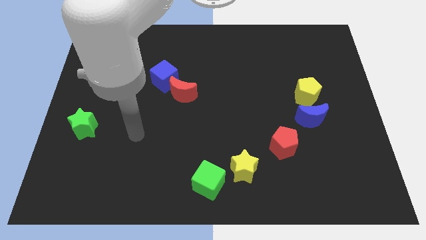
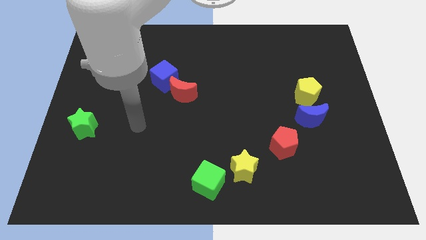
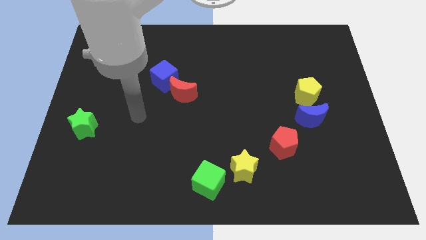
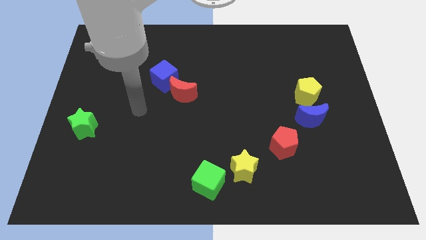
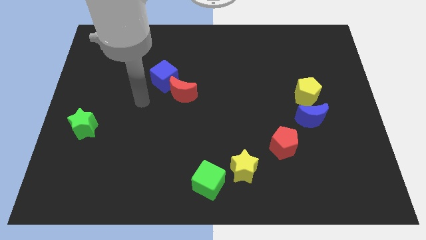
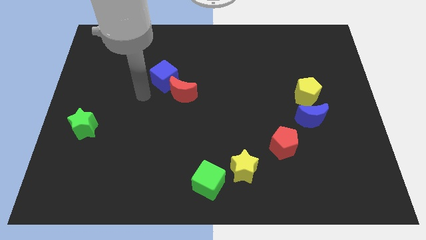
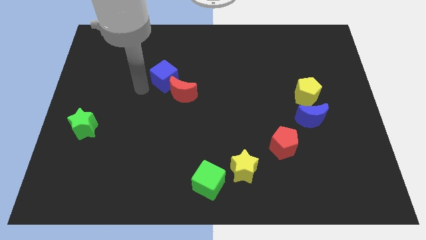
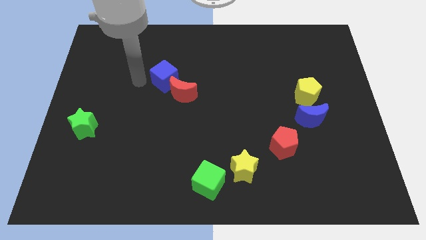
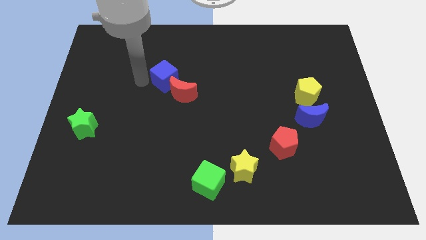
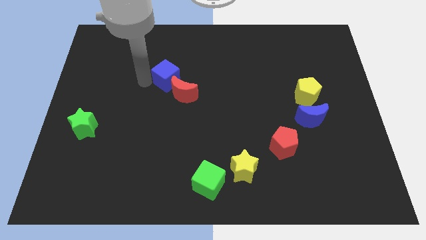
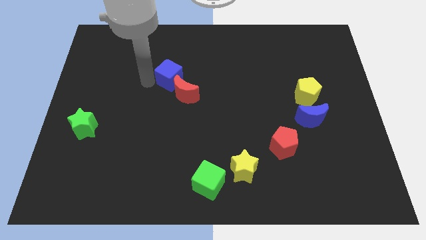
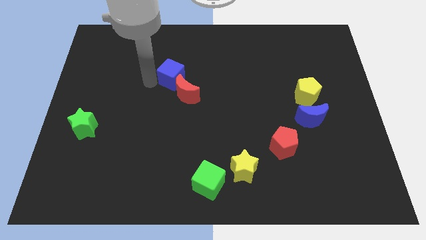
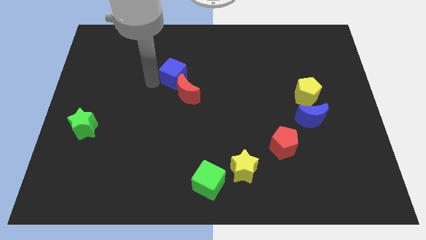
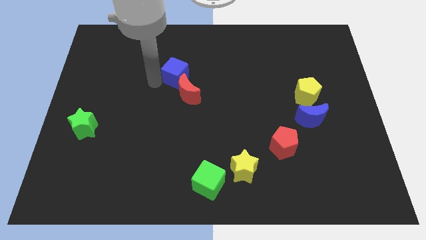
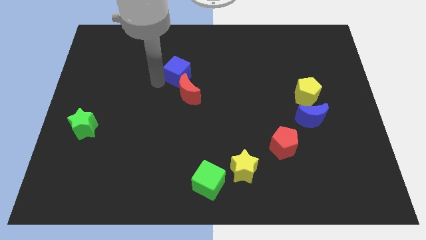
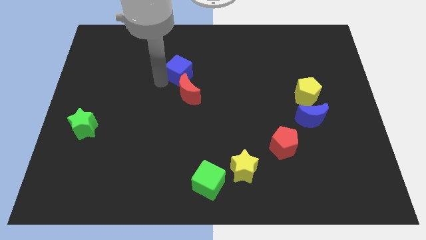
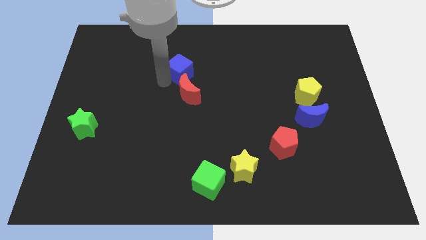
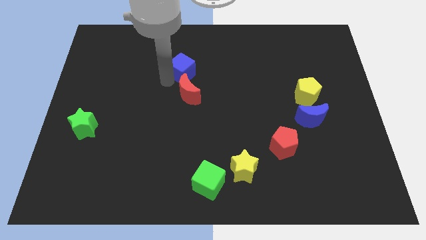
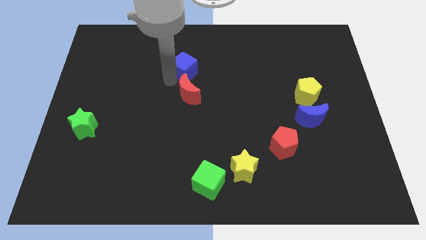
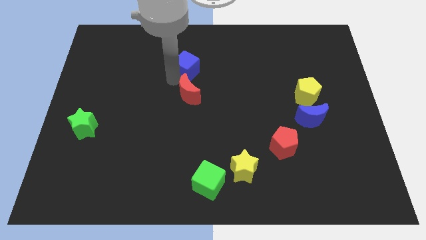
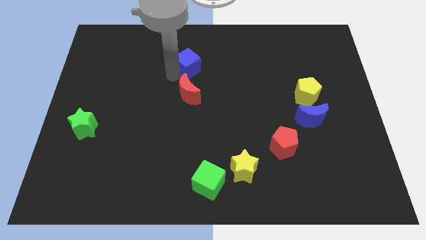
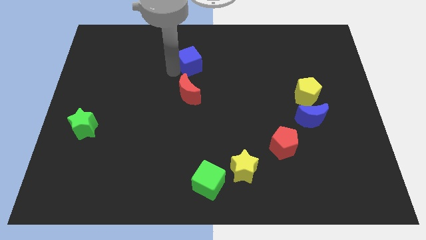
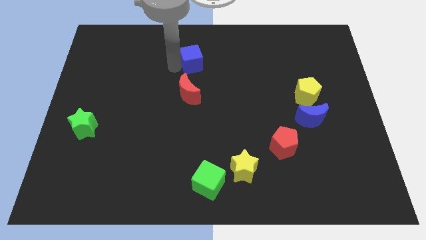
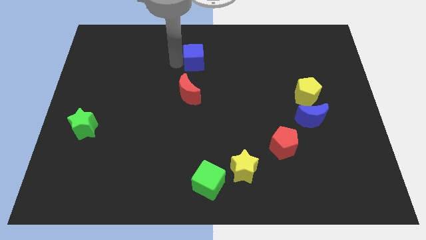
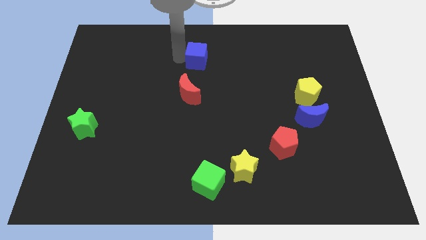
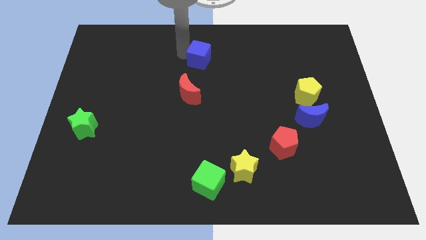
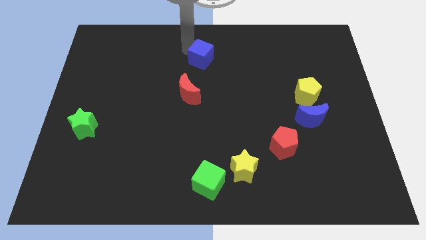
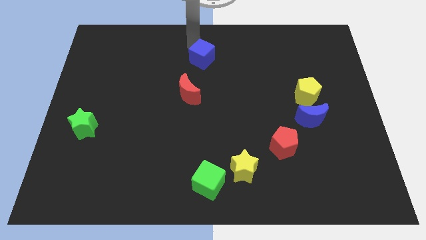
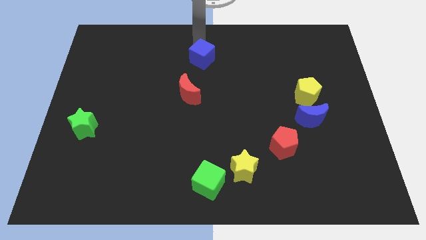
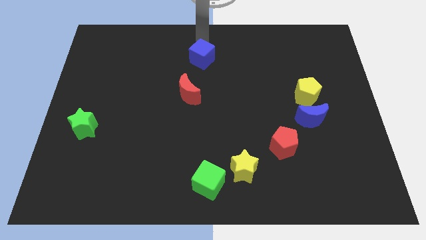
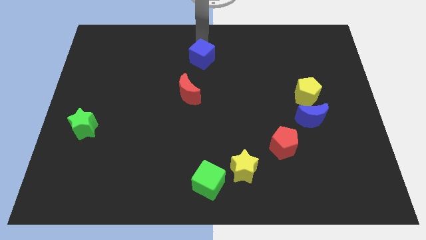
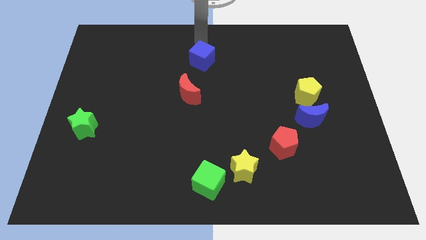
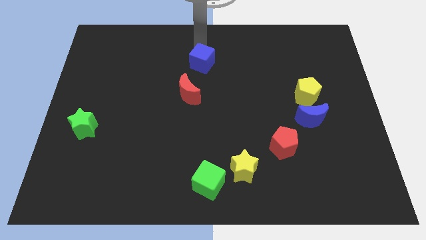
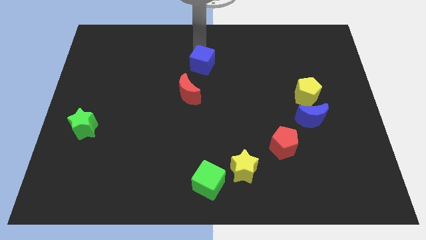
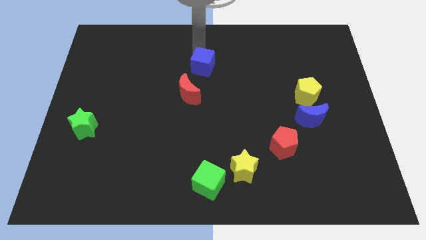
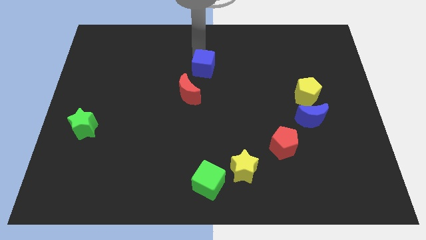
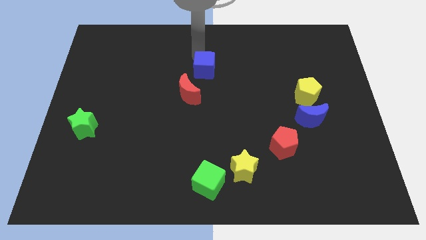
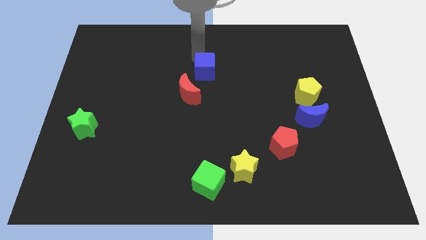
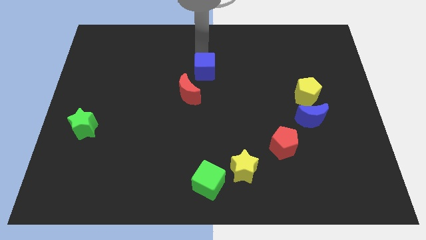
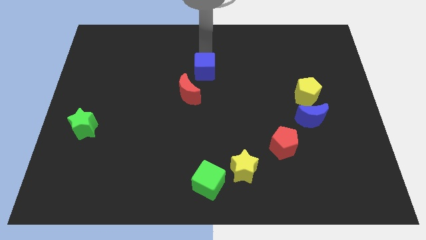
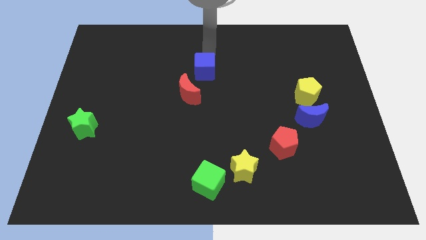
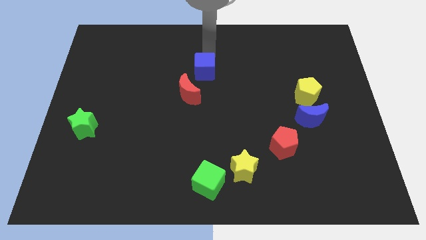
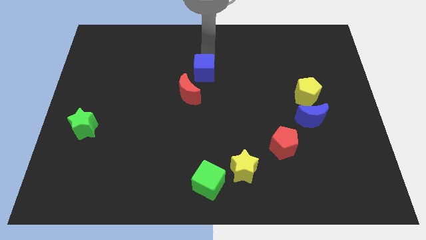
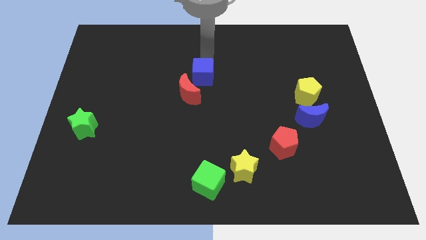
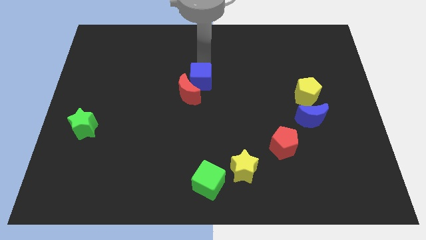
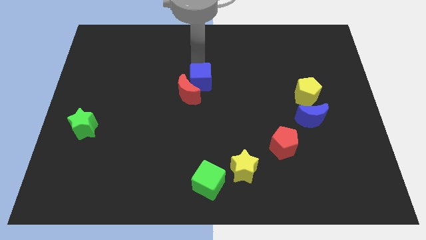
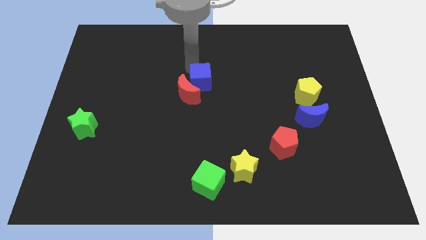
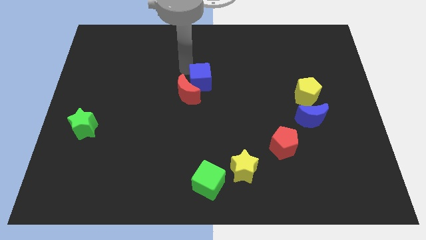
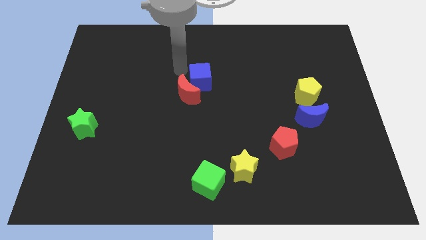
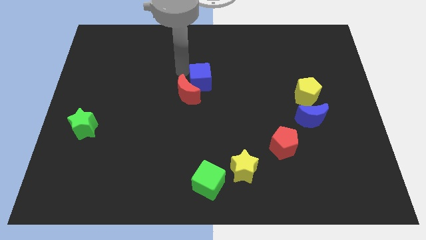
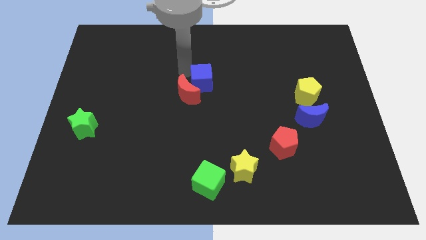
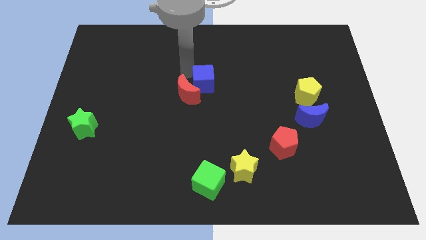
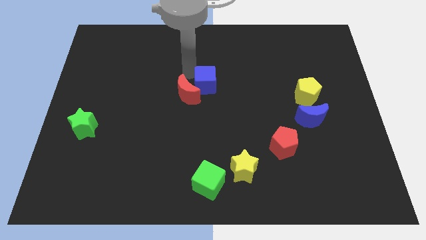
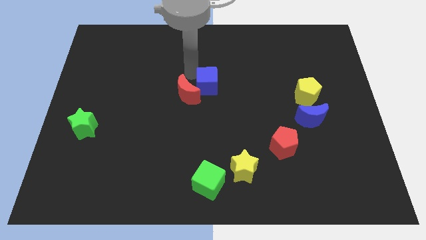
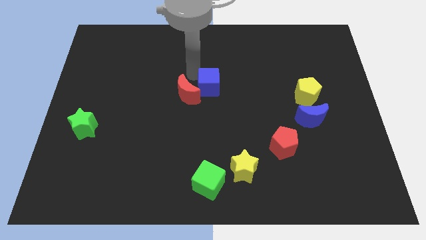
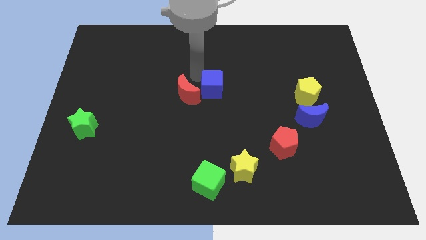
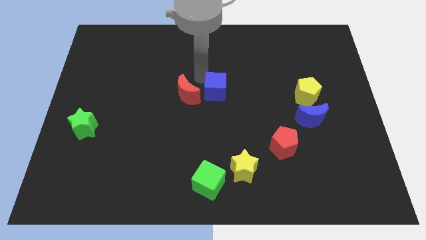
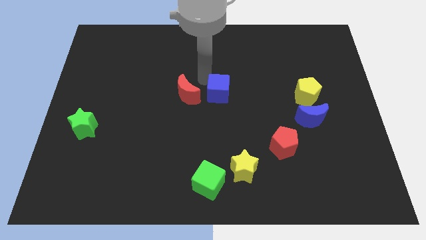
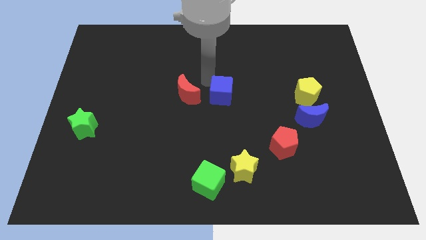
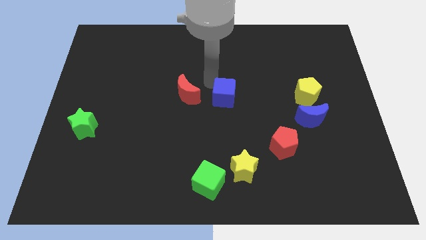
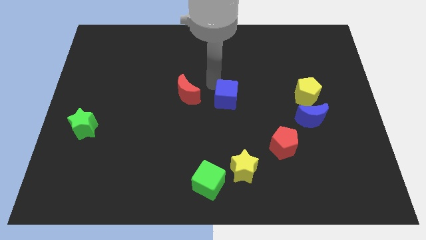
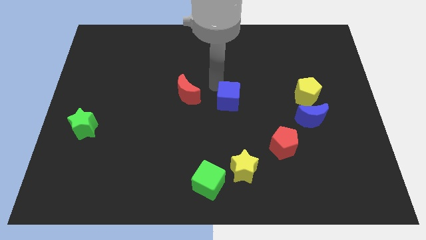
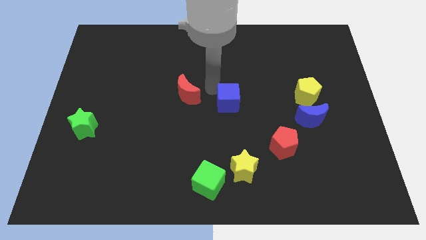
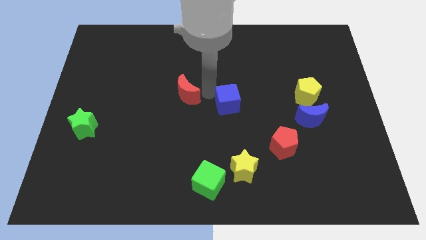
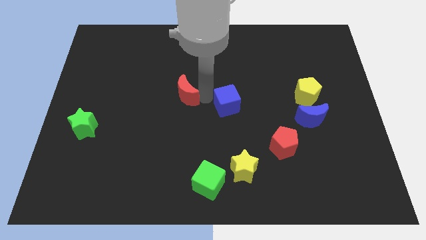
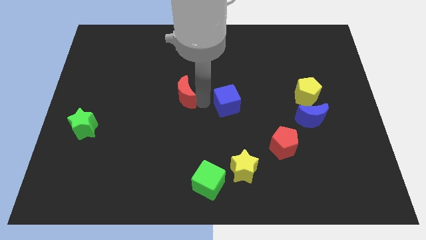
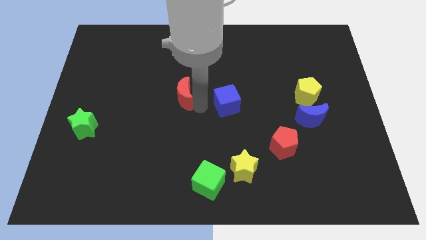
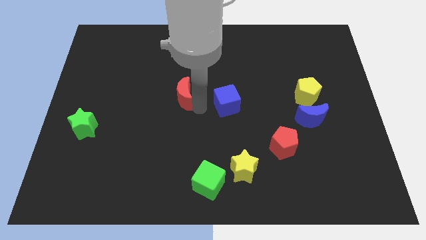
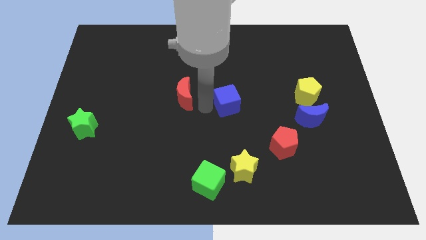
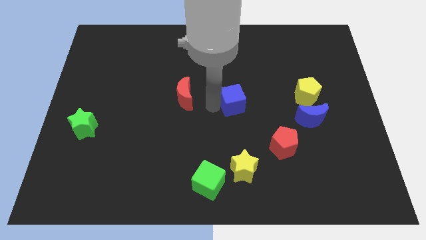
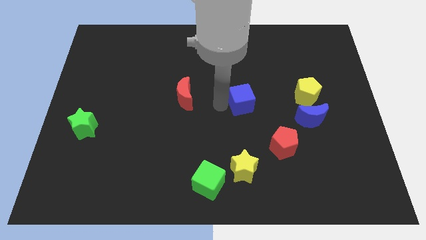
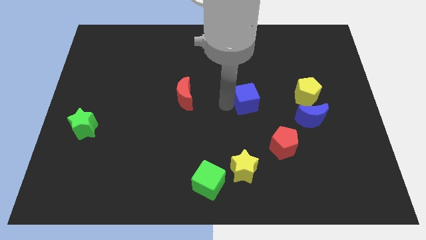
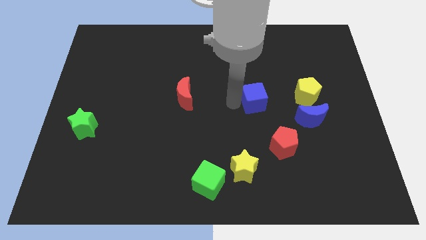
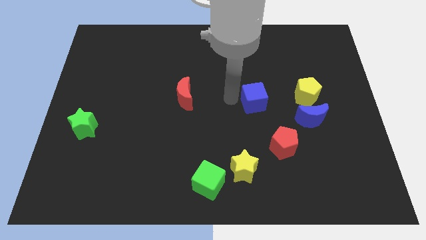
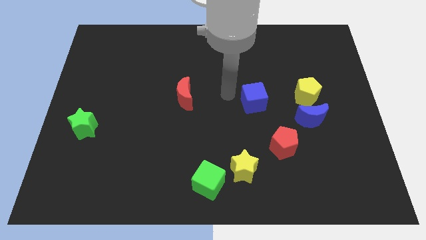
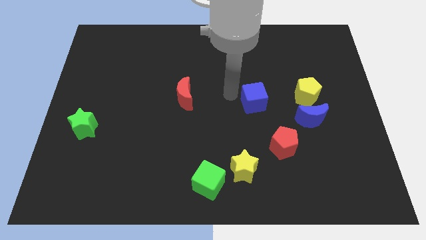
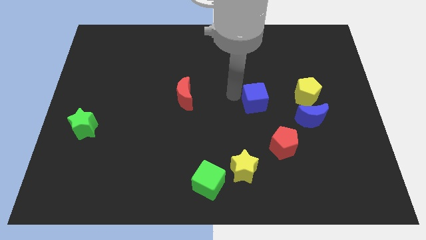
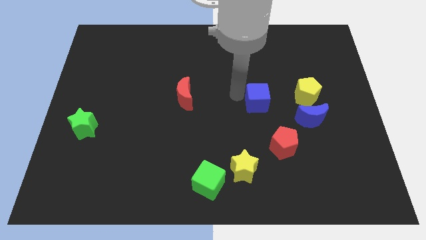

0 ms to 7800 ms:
move the blue cube above the red pentagon
